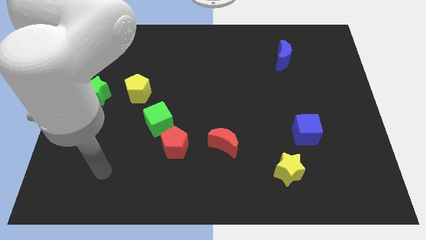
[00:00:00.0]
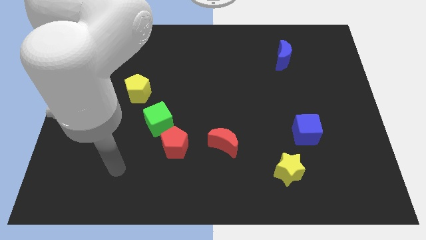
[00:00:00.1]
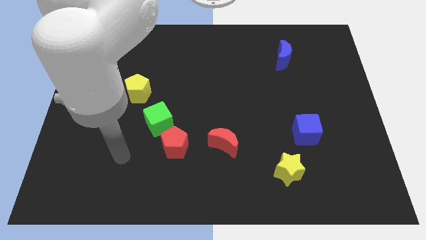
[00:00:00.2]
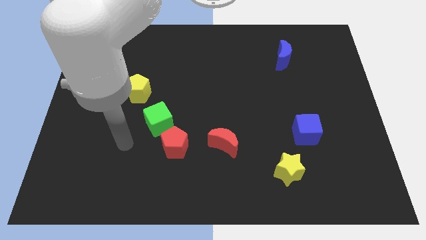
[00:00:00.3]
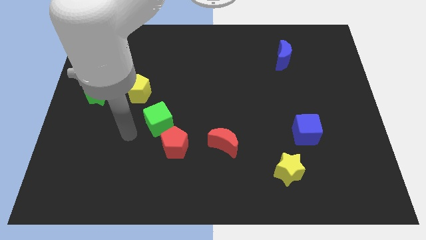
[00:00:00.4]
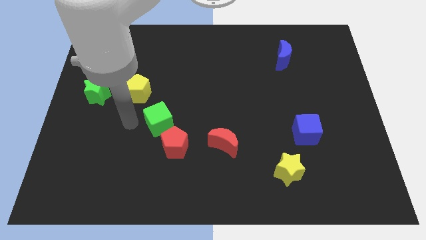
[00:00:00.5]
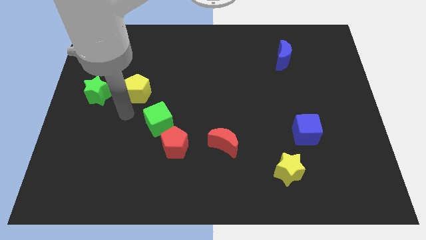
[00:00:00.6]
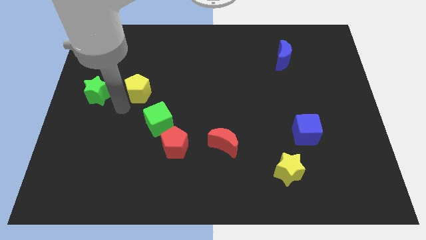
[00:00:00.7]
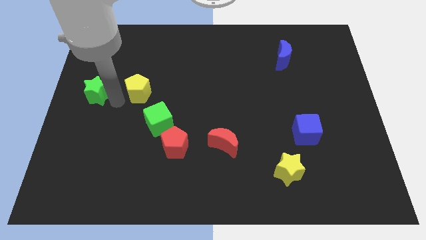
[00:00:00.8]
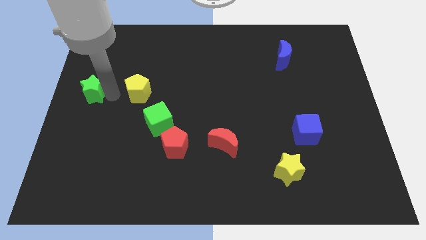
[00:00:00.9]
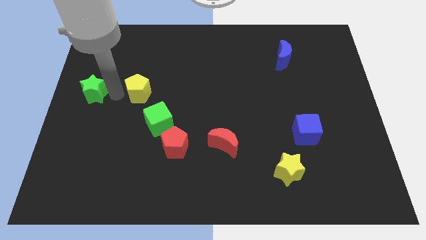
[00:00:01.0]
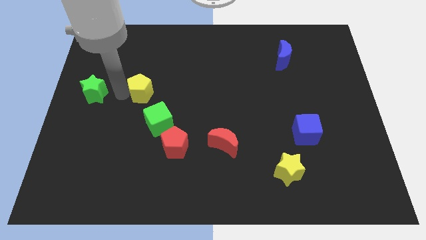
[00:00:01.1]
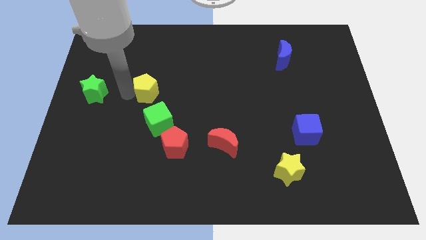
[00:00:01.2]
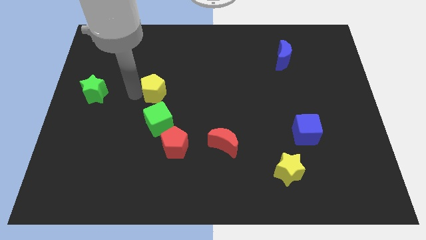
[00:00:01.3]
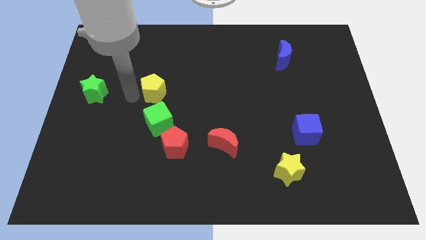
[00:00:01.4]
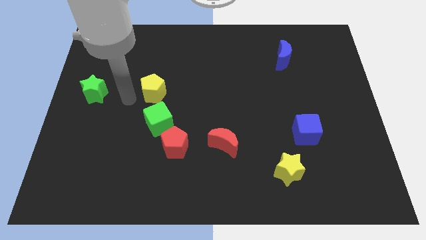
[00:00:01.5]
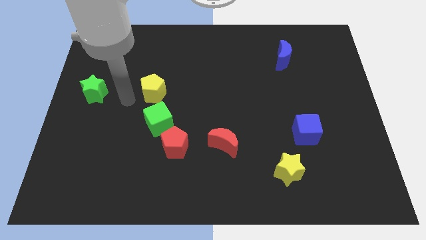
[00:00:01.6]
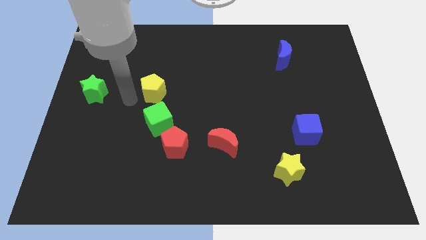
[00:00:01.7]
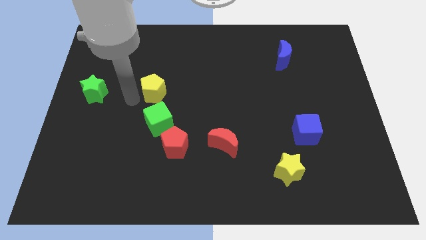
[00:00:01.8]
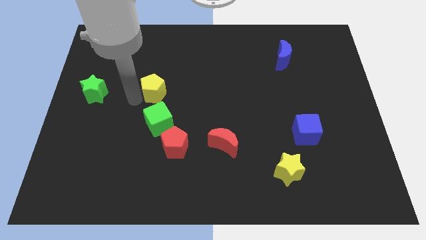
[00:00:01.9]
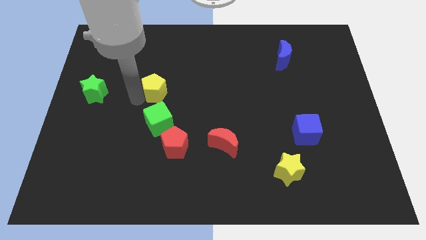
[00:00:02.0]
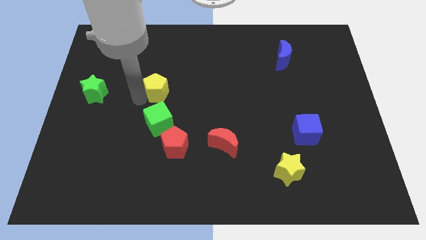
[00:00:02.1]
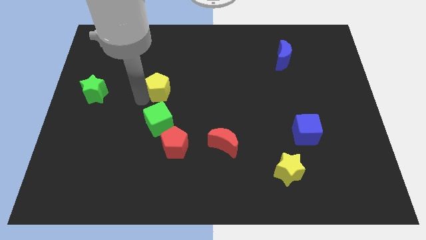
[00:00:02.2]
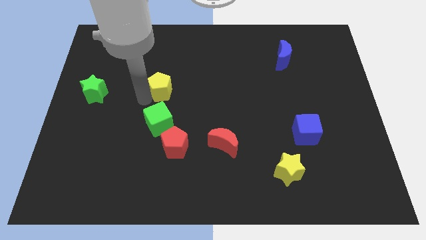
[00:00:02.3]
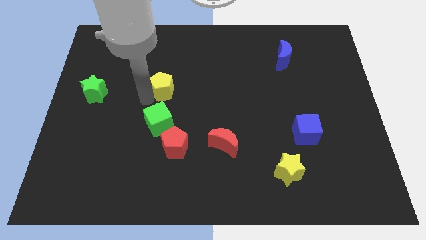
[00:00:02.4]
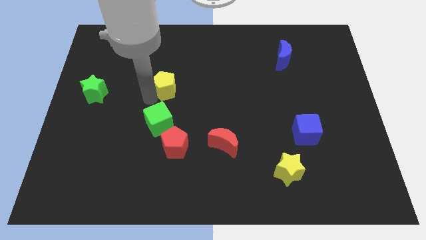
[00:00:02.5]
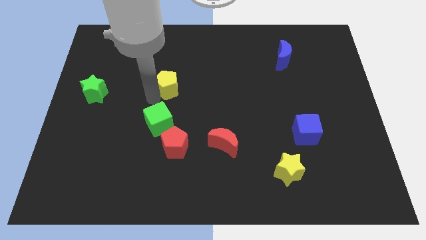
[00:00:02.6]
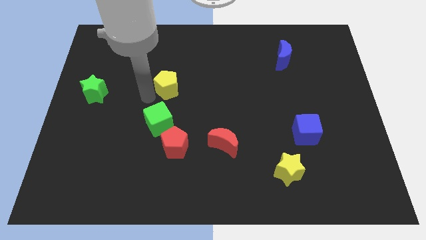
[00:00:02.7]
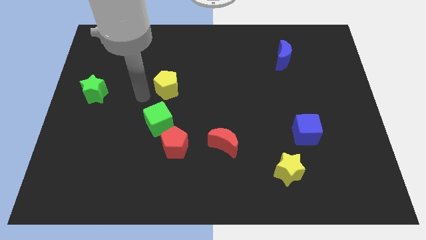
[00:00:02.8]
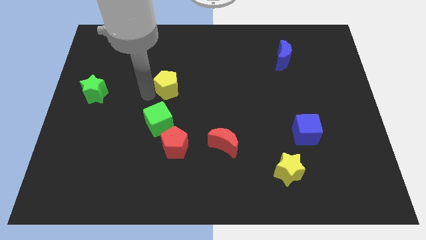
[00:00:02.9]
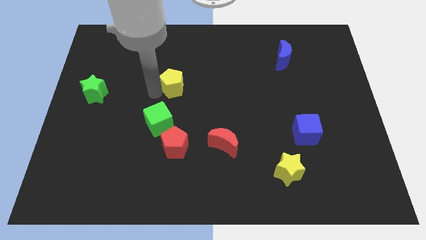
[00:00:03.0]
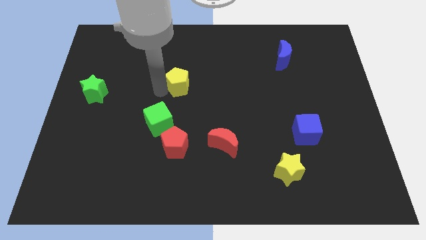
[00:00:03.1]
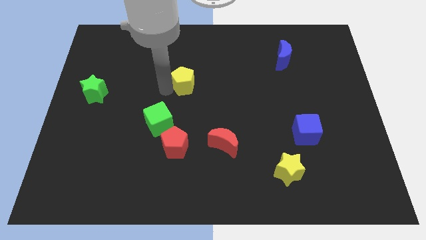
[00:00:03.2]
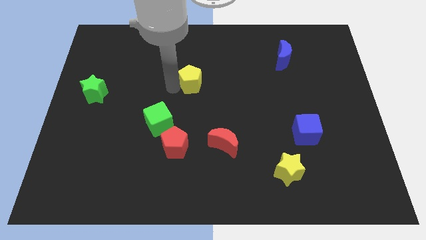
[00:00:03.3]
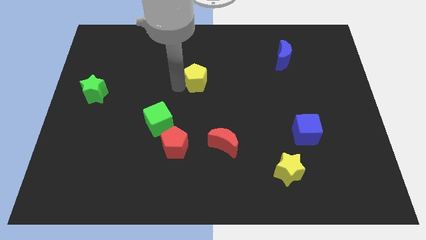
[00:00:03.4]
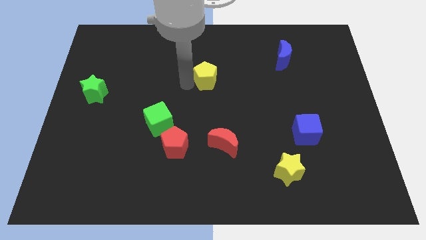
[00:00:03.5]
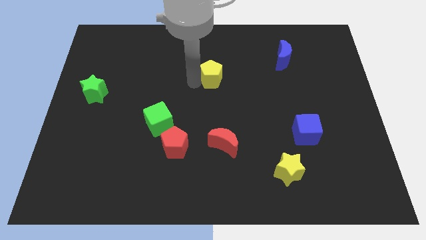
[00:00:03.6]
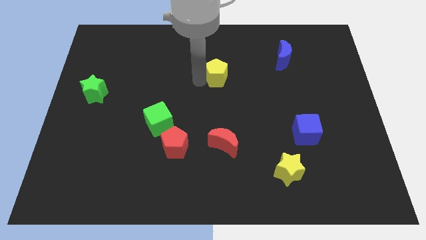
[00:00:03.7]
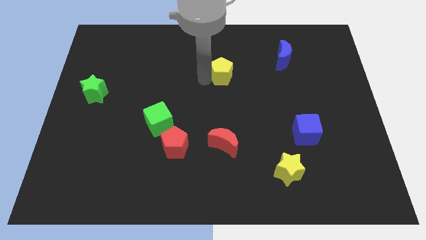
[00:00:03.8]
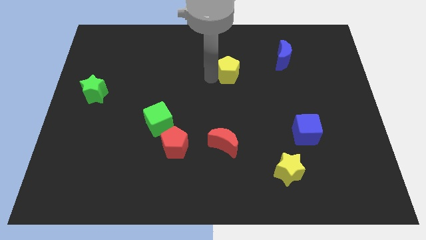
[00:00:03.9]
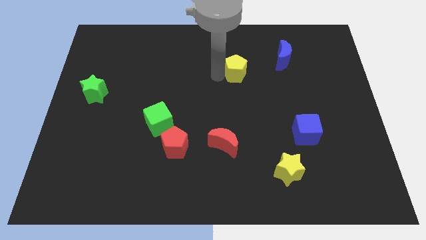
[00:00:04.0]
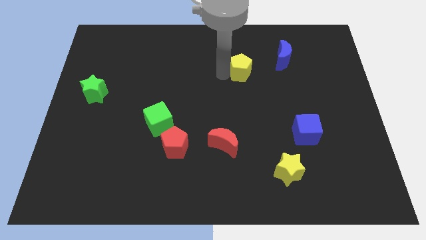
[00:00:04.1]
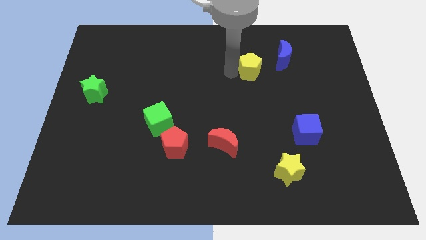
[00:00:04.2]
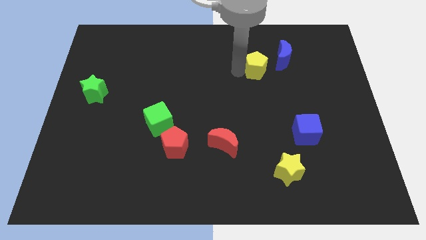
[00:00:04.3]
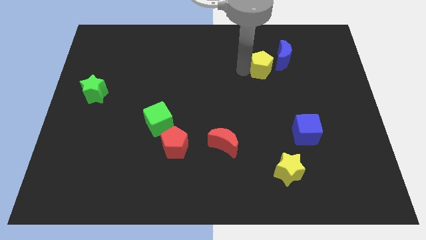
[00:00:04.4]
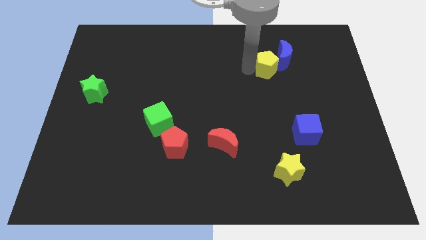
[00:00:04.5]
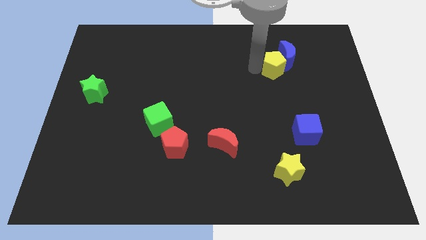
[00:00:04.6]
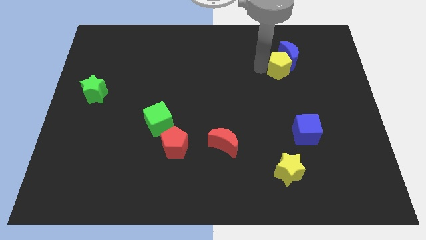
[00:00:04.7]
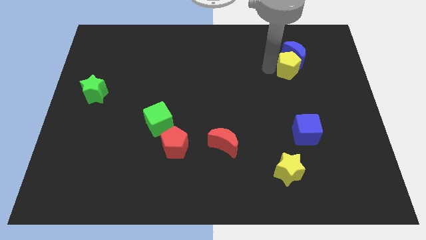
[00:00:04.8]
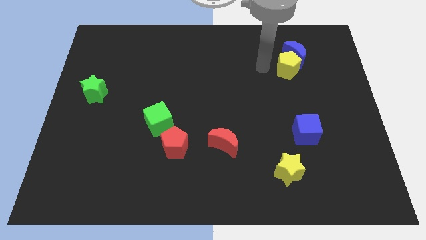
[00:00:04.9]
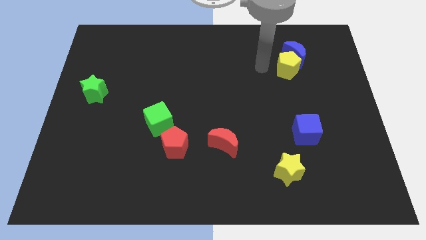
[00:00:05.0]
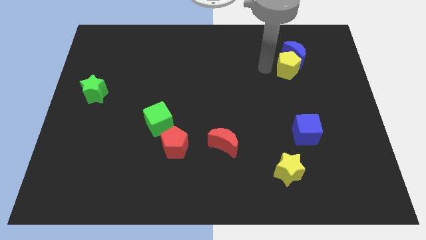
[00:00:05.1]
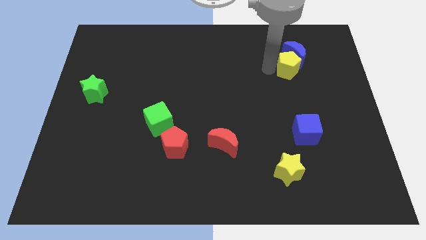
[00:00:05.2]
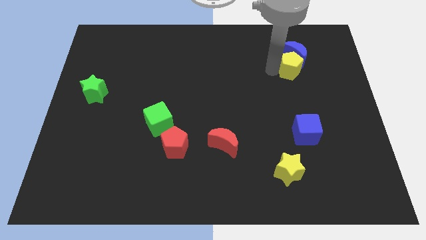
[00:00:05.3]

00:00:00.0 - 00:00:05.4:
push the yellow pentagon diagonally down and to the right of the blue moon

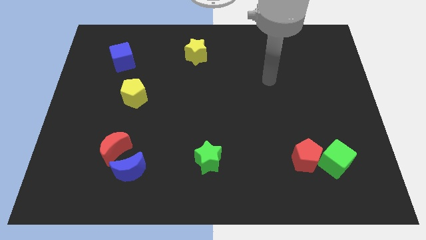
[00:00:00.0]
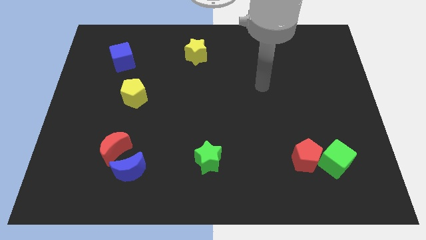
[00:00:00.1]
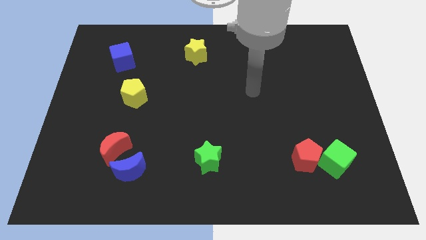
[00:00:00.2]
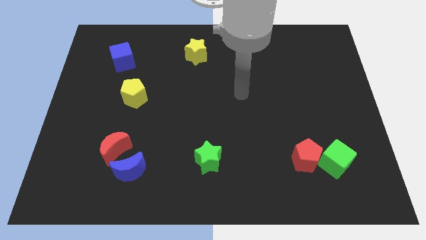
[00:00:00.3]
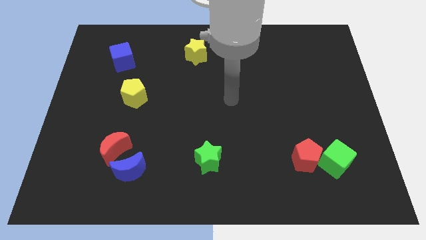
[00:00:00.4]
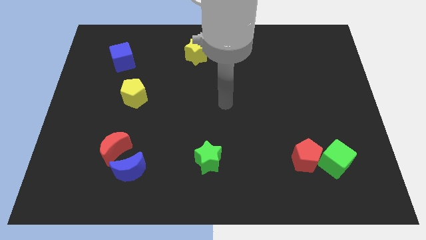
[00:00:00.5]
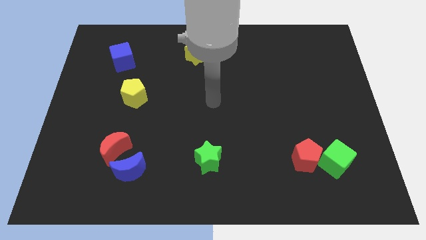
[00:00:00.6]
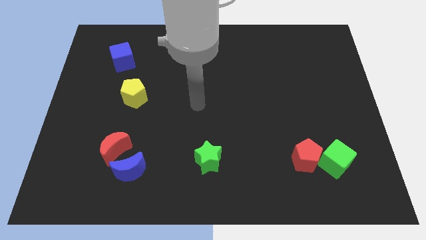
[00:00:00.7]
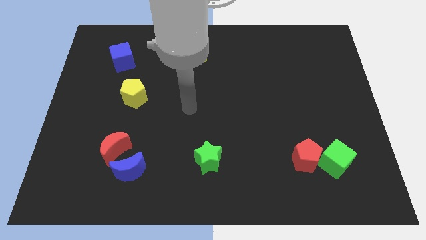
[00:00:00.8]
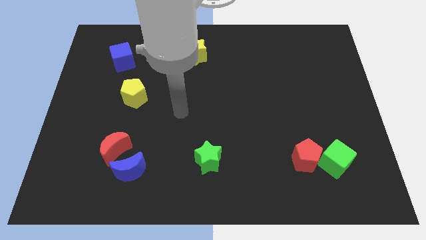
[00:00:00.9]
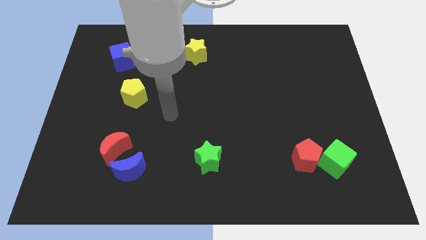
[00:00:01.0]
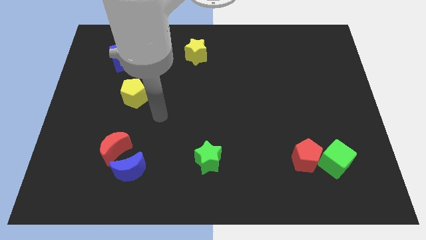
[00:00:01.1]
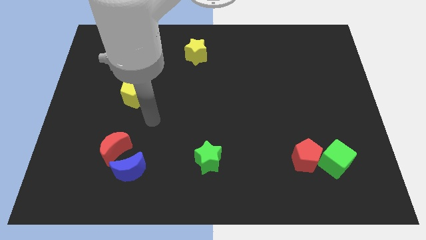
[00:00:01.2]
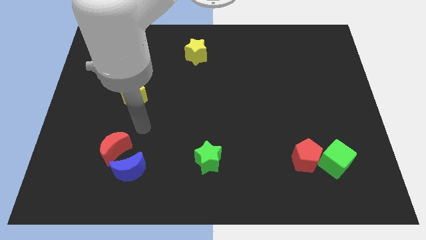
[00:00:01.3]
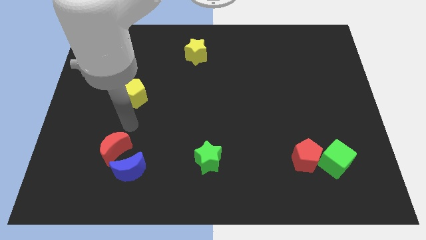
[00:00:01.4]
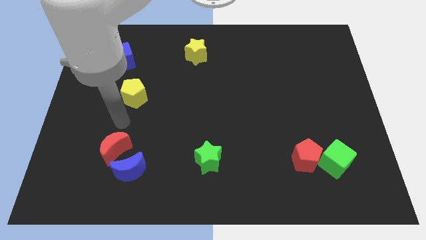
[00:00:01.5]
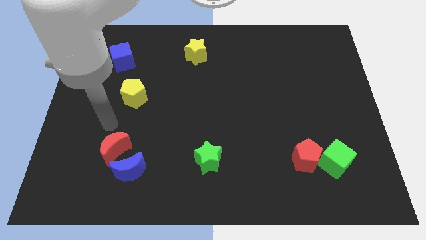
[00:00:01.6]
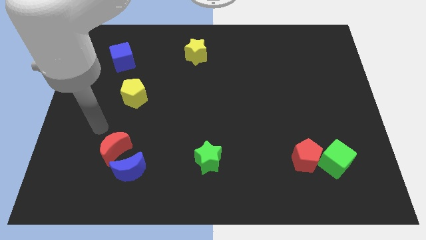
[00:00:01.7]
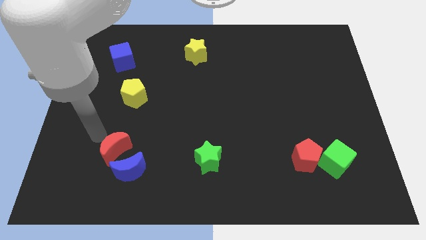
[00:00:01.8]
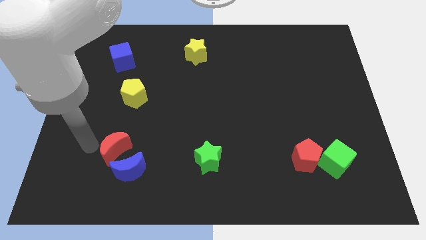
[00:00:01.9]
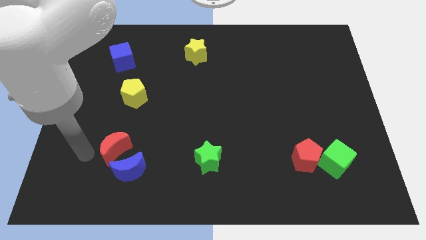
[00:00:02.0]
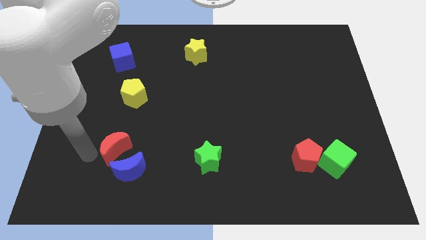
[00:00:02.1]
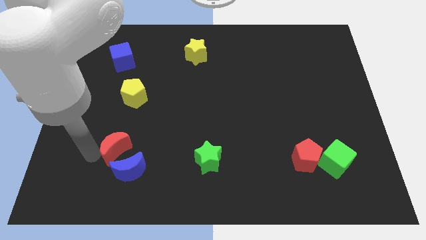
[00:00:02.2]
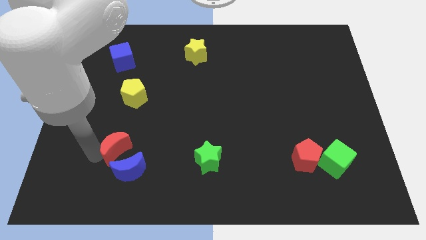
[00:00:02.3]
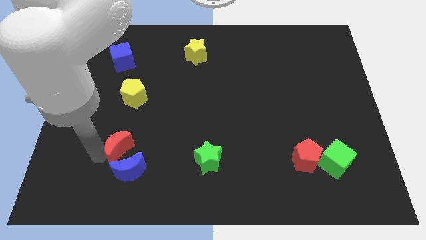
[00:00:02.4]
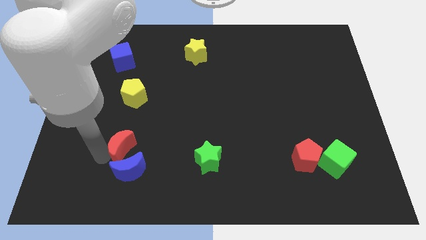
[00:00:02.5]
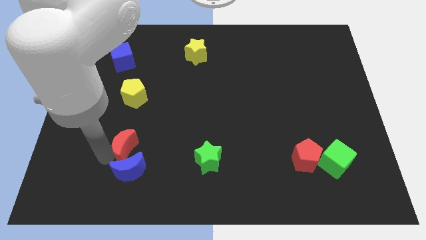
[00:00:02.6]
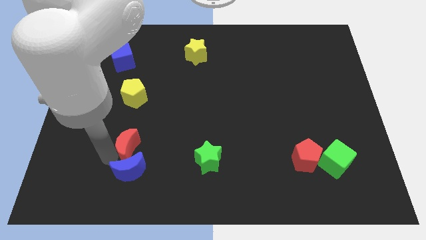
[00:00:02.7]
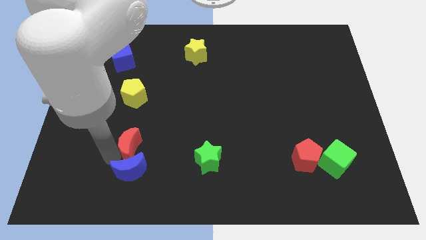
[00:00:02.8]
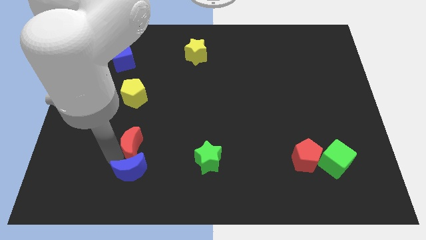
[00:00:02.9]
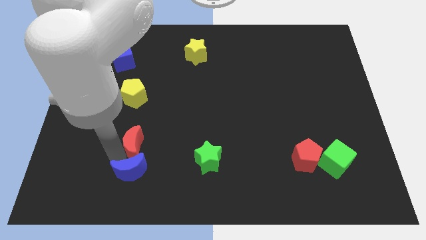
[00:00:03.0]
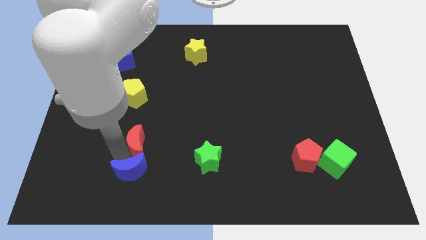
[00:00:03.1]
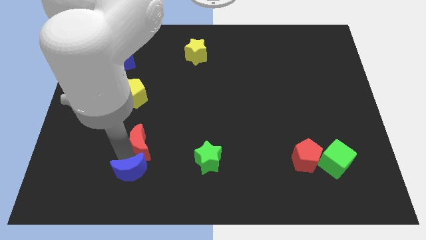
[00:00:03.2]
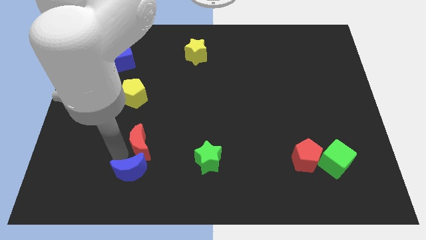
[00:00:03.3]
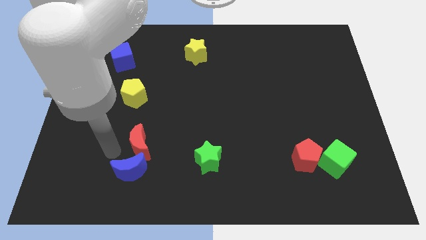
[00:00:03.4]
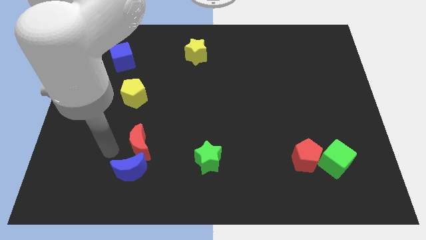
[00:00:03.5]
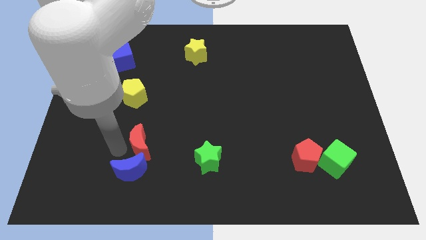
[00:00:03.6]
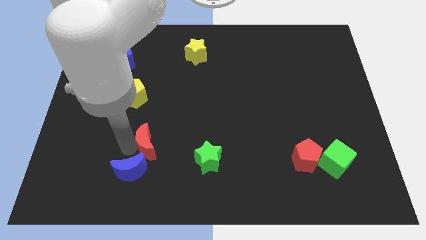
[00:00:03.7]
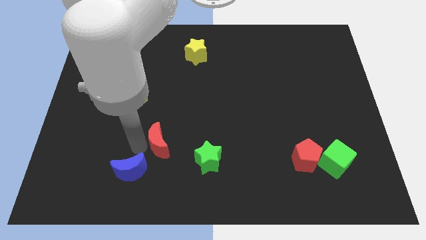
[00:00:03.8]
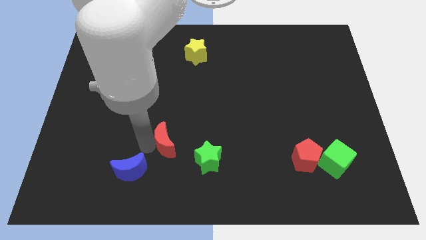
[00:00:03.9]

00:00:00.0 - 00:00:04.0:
put the red moon to the top left side of the green star
